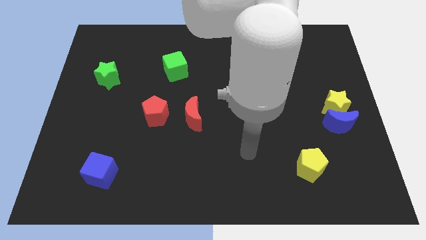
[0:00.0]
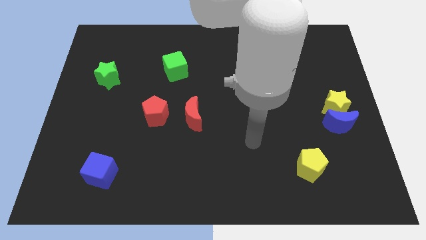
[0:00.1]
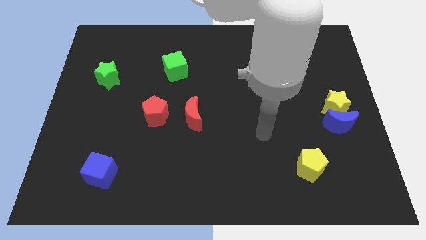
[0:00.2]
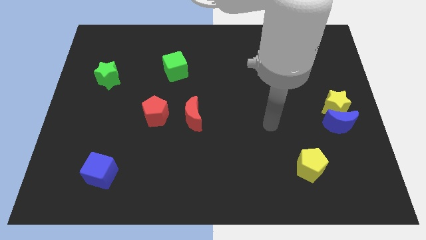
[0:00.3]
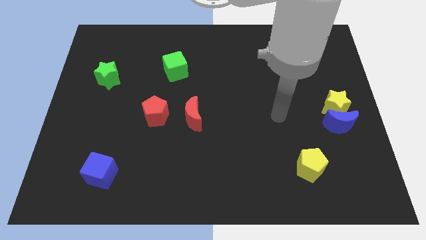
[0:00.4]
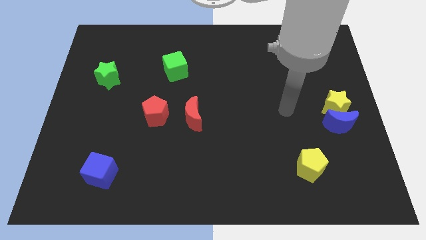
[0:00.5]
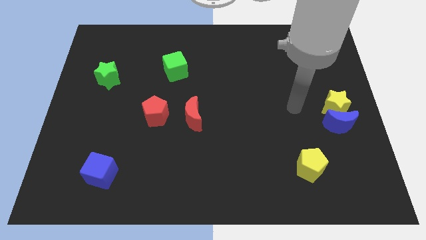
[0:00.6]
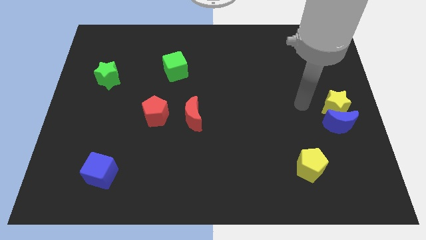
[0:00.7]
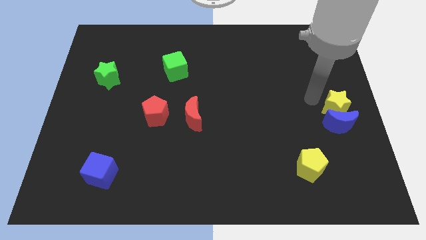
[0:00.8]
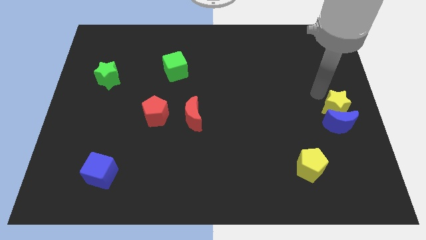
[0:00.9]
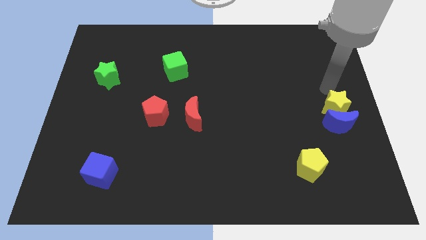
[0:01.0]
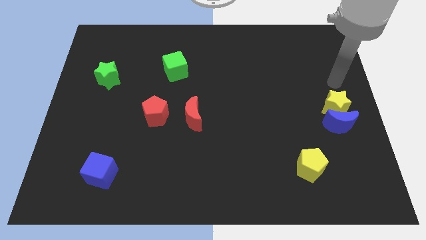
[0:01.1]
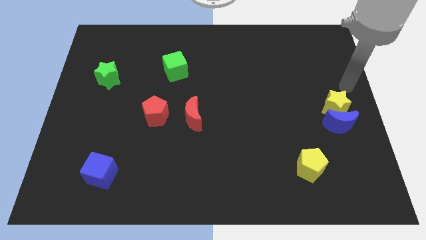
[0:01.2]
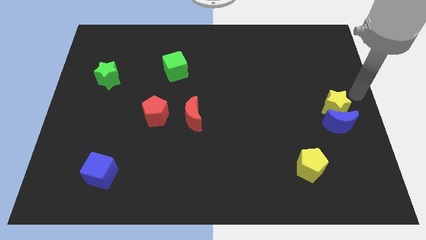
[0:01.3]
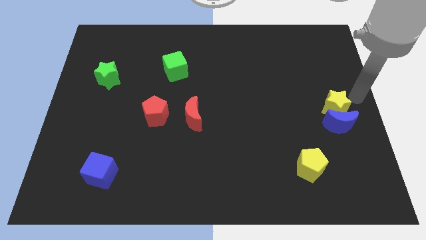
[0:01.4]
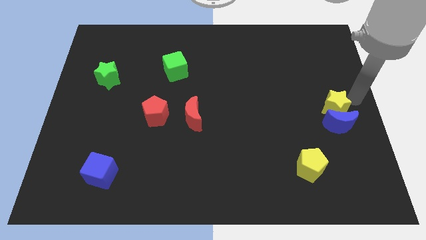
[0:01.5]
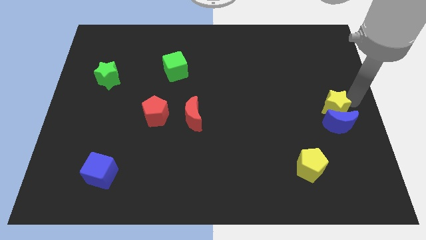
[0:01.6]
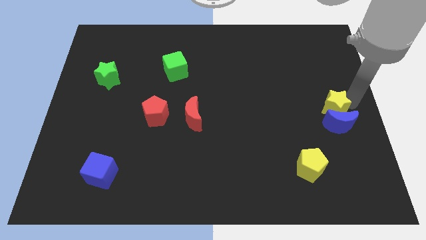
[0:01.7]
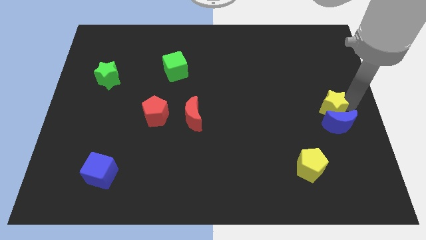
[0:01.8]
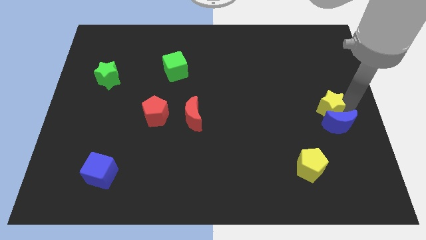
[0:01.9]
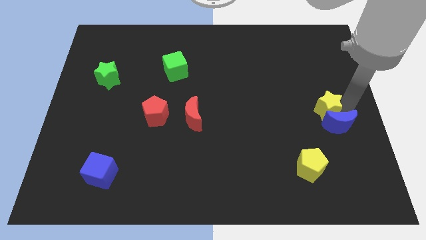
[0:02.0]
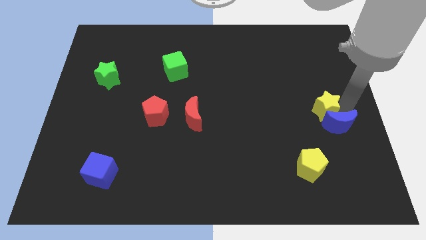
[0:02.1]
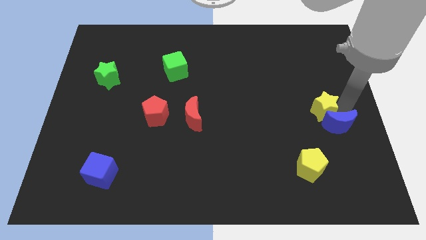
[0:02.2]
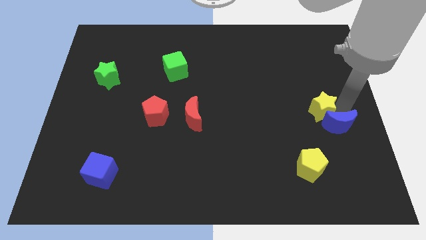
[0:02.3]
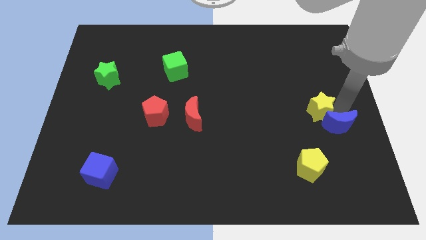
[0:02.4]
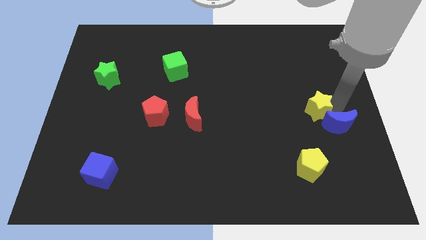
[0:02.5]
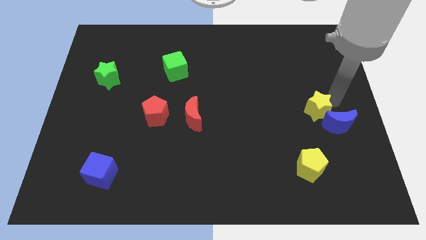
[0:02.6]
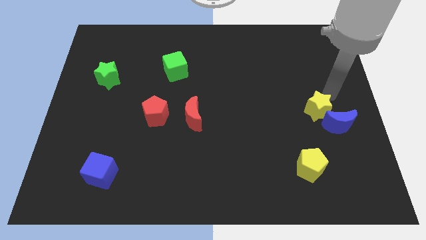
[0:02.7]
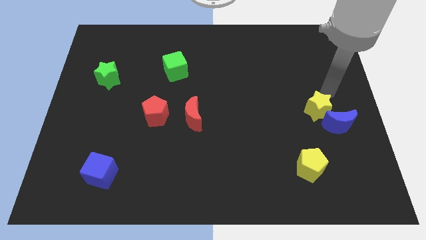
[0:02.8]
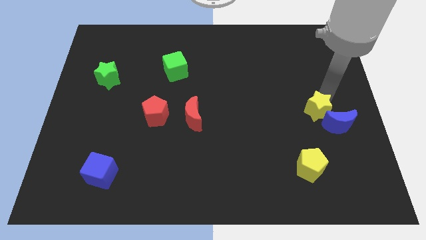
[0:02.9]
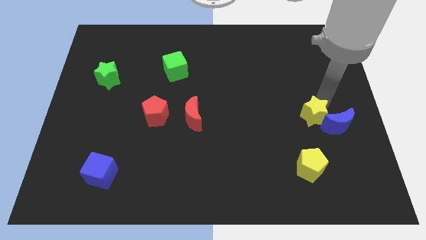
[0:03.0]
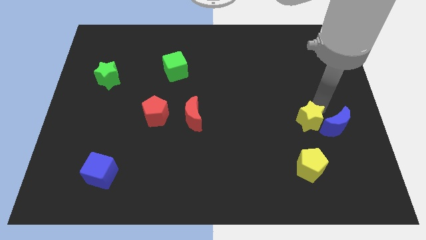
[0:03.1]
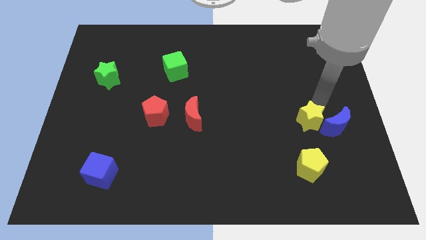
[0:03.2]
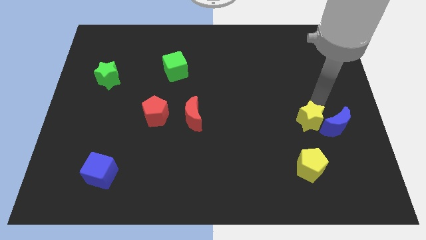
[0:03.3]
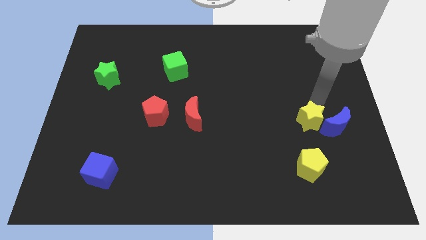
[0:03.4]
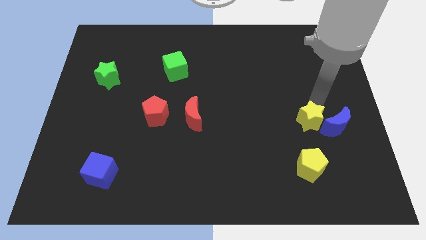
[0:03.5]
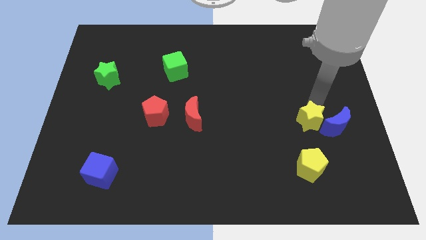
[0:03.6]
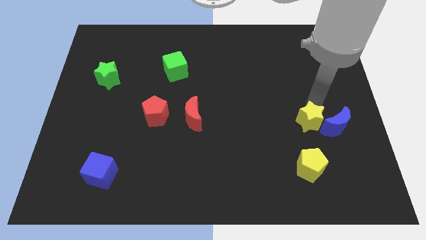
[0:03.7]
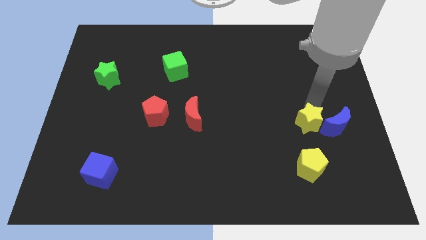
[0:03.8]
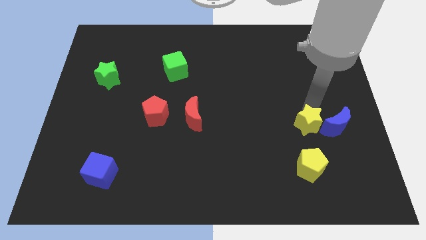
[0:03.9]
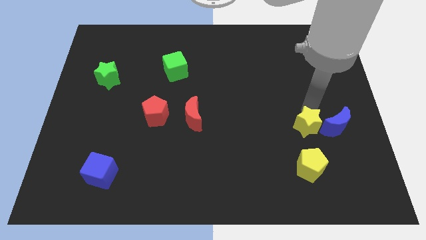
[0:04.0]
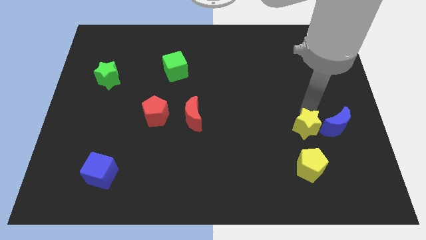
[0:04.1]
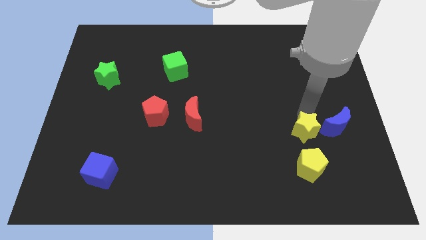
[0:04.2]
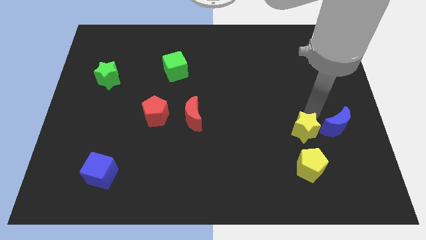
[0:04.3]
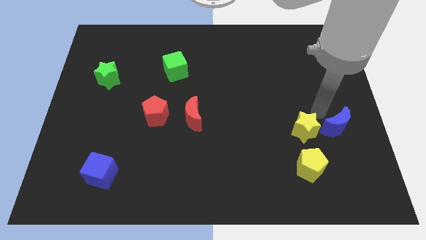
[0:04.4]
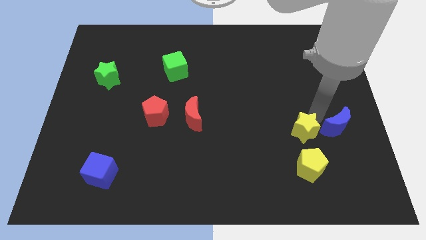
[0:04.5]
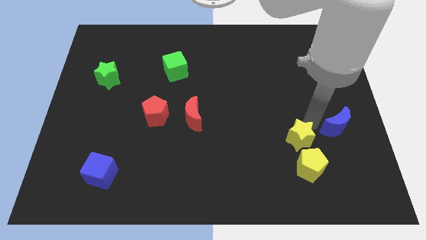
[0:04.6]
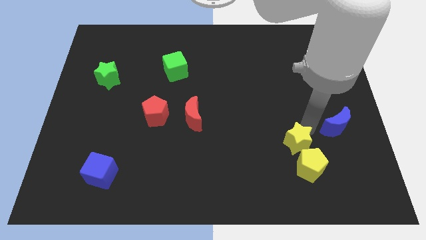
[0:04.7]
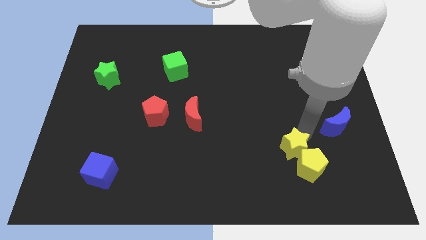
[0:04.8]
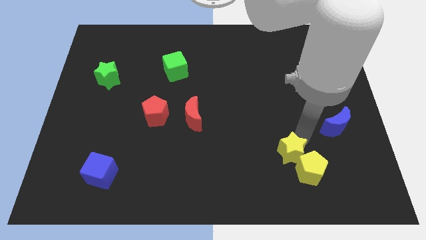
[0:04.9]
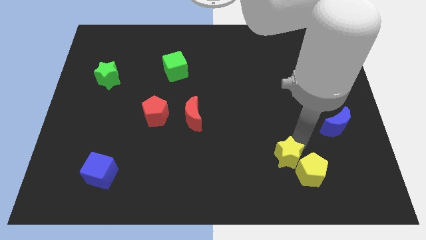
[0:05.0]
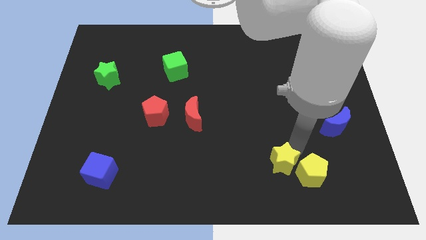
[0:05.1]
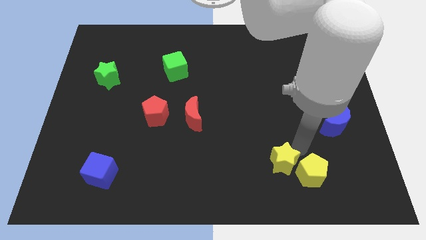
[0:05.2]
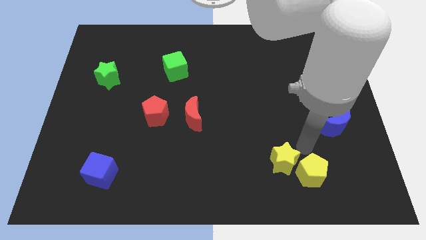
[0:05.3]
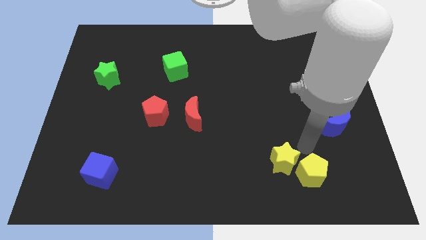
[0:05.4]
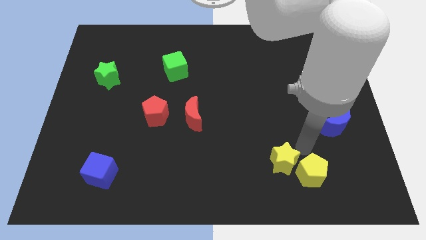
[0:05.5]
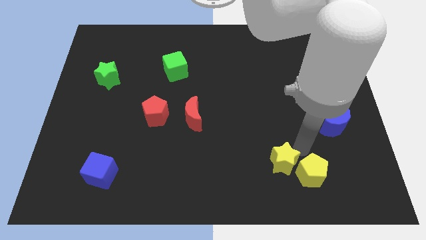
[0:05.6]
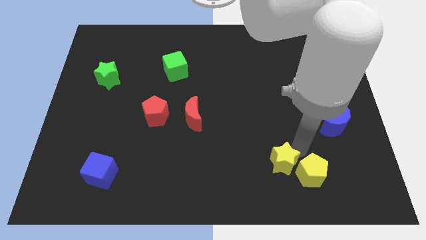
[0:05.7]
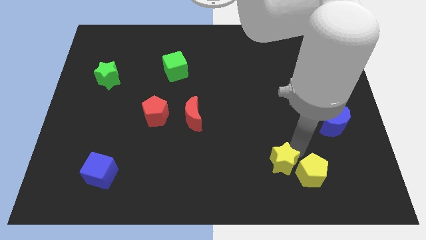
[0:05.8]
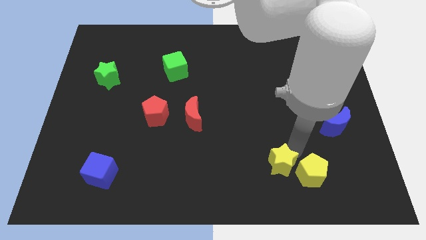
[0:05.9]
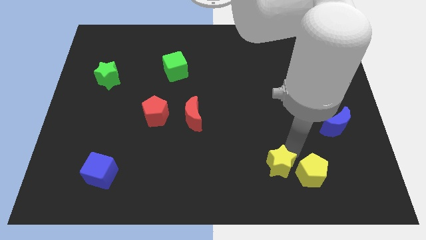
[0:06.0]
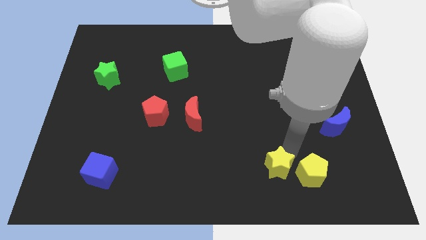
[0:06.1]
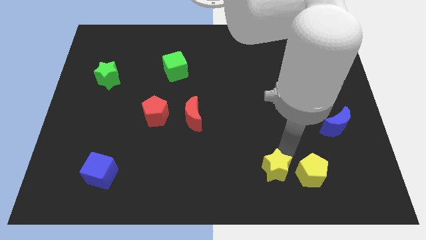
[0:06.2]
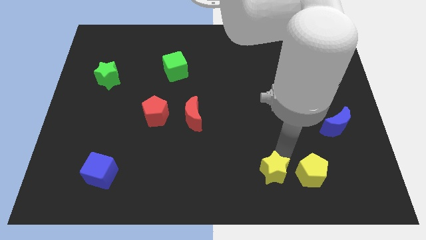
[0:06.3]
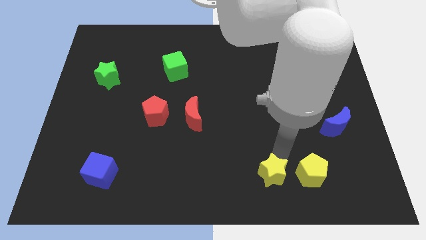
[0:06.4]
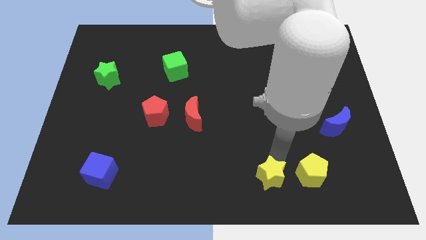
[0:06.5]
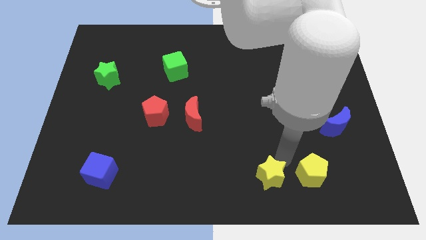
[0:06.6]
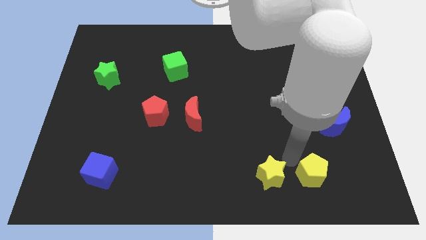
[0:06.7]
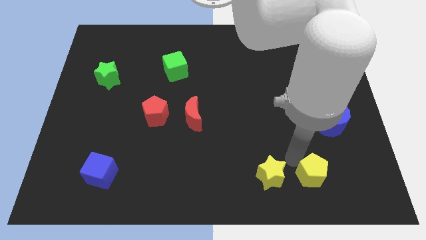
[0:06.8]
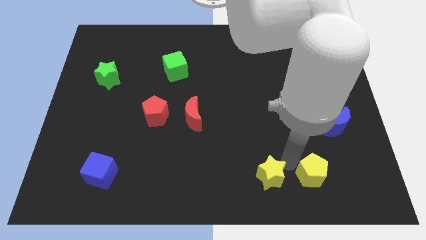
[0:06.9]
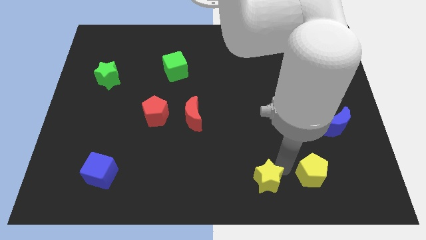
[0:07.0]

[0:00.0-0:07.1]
slide the yellow star to the bottom

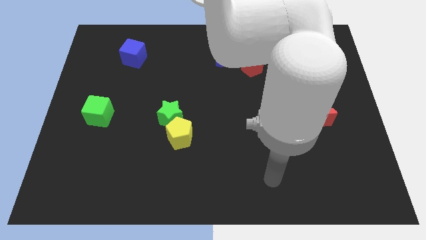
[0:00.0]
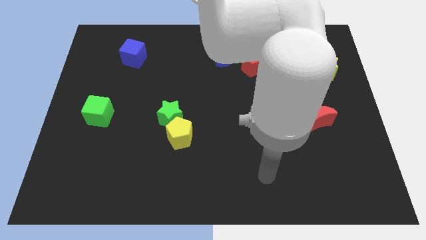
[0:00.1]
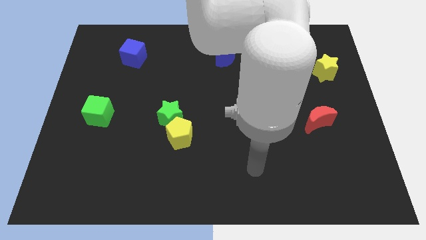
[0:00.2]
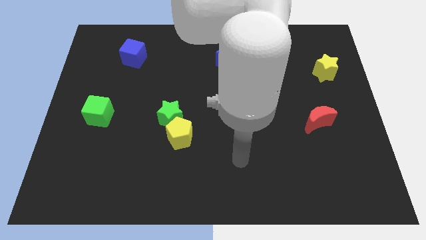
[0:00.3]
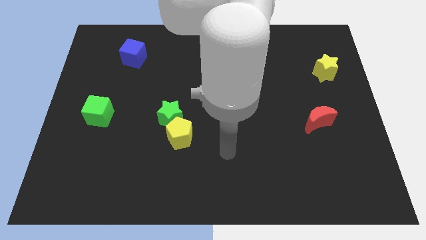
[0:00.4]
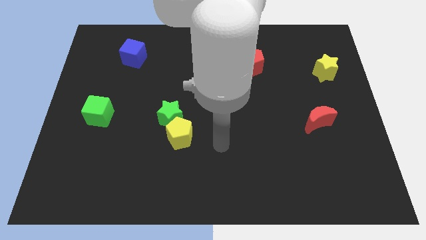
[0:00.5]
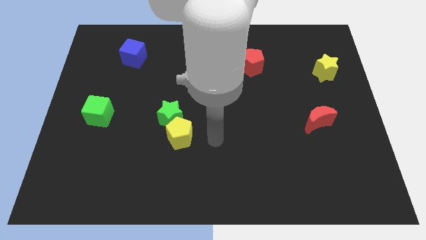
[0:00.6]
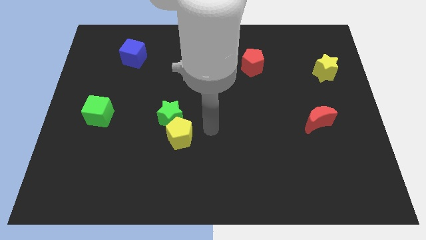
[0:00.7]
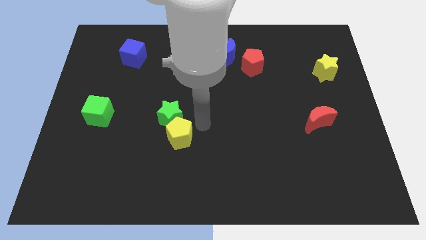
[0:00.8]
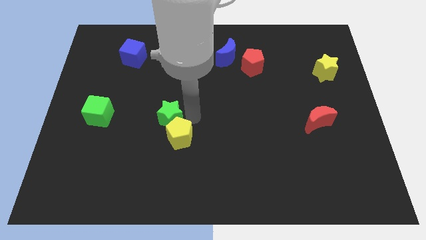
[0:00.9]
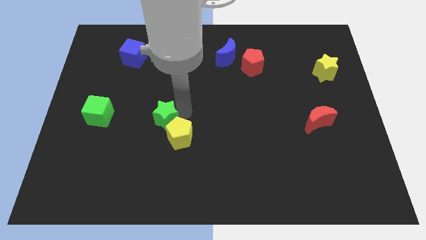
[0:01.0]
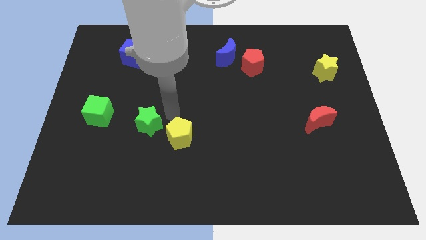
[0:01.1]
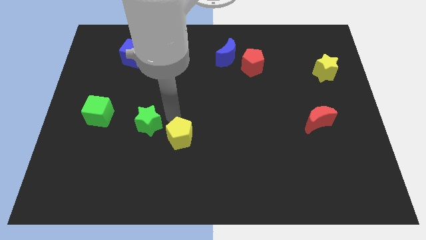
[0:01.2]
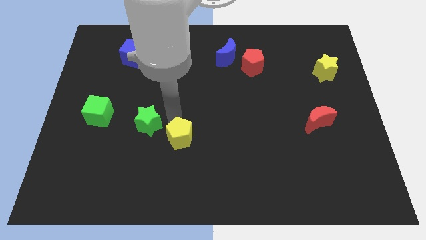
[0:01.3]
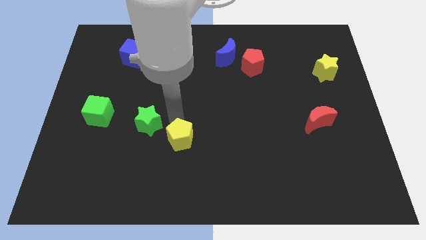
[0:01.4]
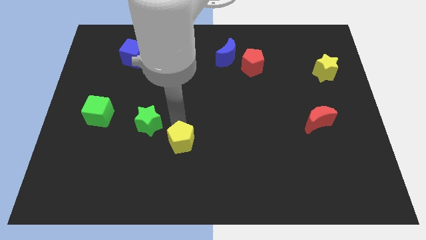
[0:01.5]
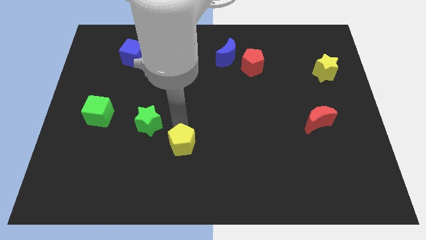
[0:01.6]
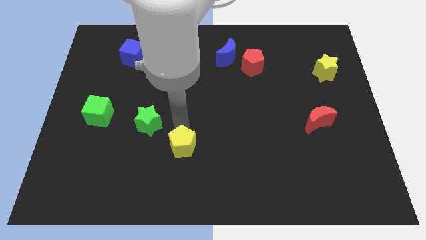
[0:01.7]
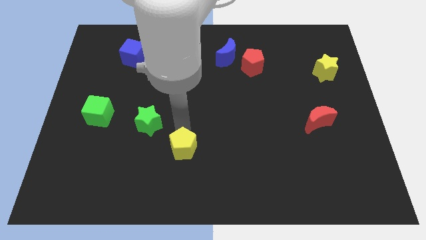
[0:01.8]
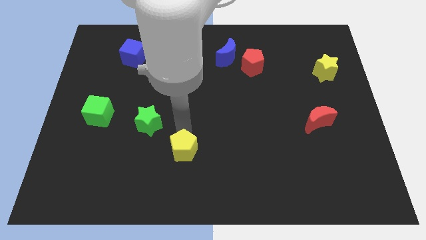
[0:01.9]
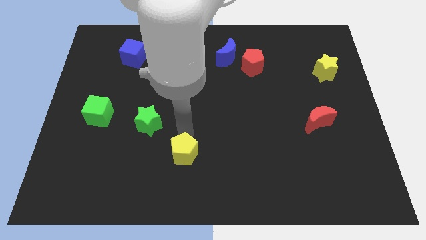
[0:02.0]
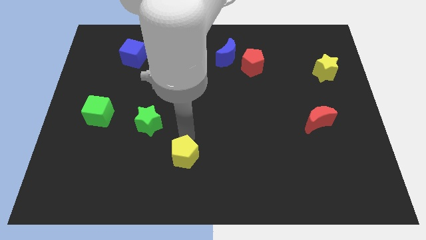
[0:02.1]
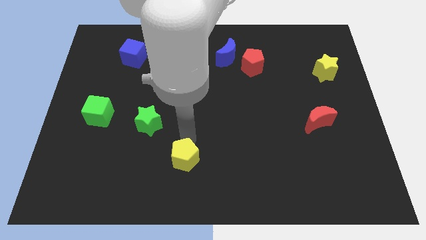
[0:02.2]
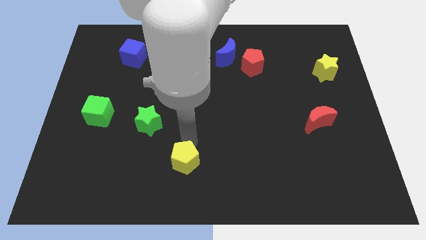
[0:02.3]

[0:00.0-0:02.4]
push the yellow pentagon to the bottom
